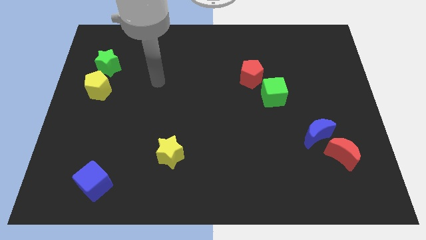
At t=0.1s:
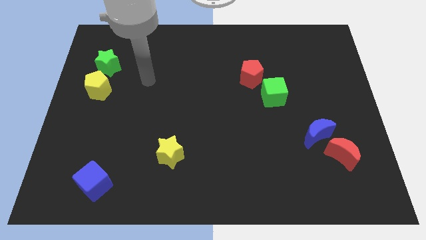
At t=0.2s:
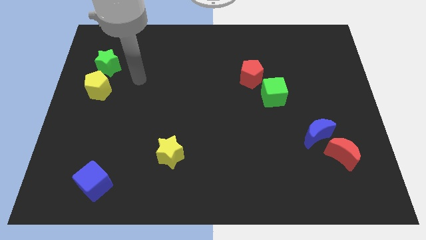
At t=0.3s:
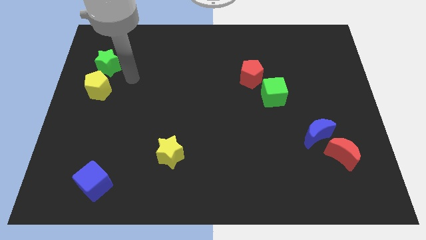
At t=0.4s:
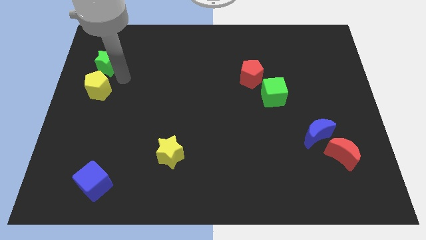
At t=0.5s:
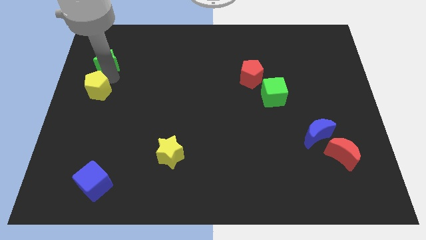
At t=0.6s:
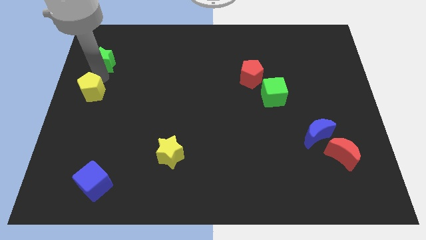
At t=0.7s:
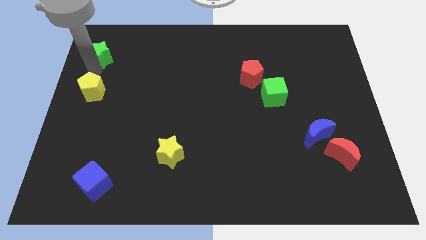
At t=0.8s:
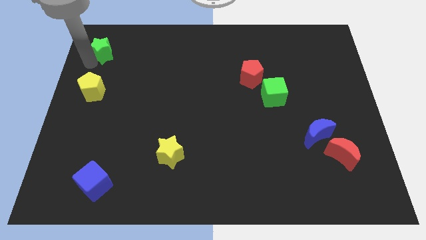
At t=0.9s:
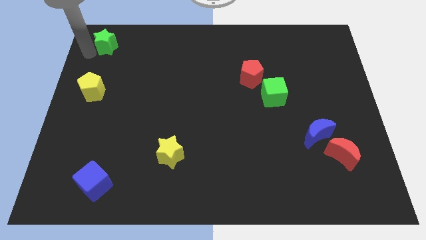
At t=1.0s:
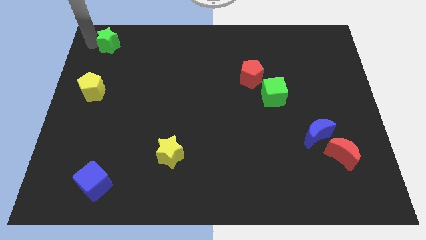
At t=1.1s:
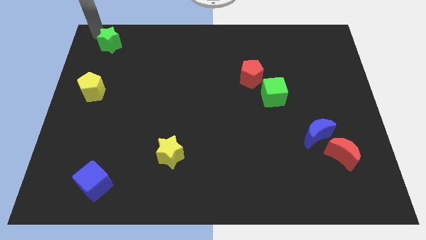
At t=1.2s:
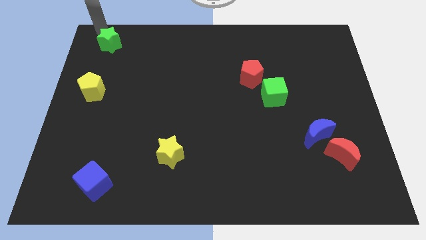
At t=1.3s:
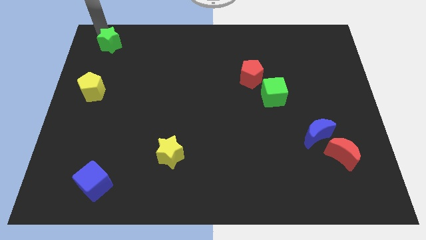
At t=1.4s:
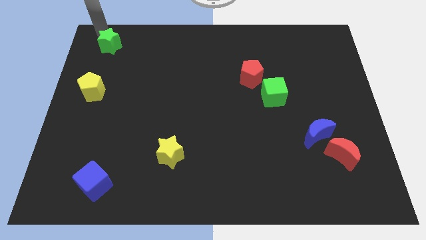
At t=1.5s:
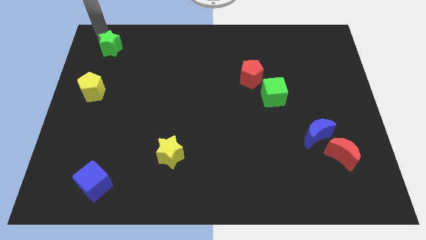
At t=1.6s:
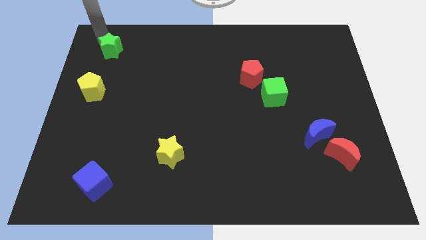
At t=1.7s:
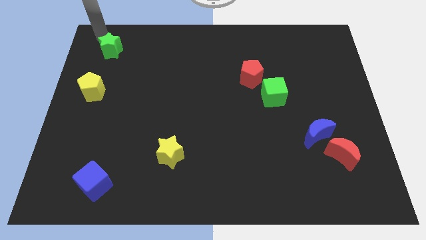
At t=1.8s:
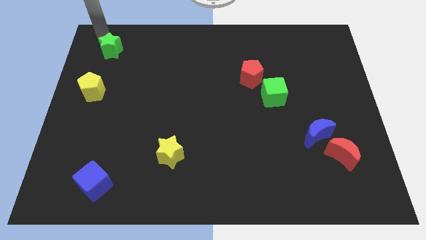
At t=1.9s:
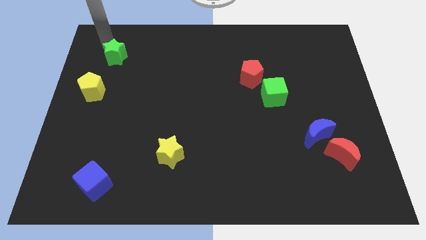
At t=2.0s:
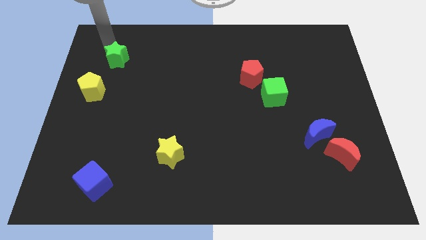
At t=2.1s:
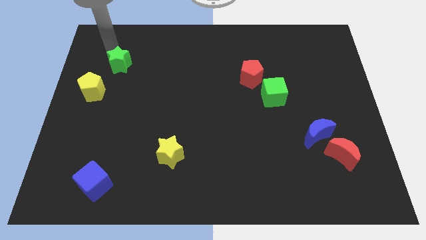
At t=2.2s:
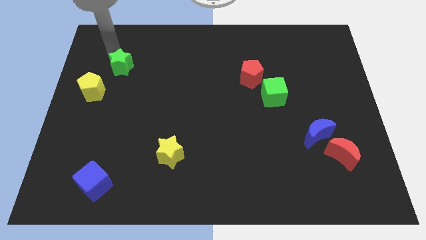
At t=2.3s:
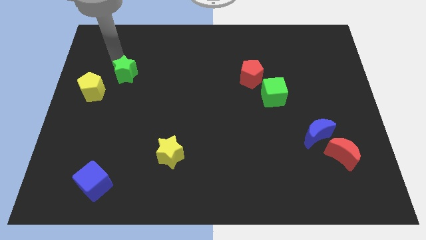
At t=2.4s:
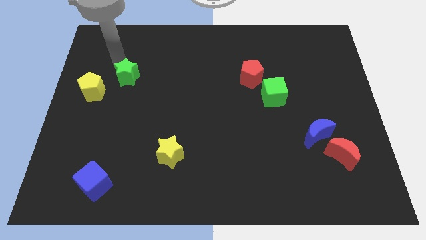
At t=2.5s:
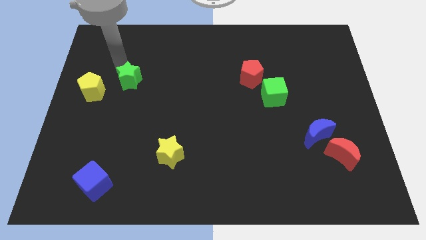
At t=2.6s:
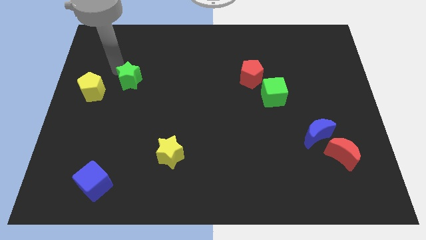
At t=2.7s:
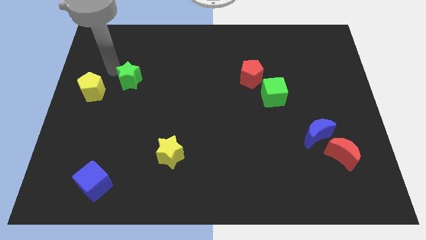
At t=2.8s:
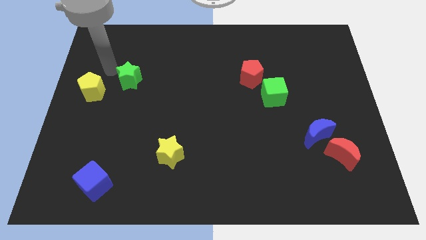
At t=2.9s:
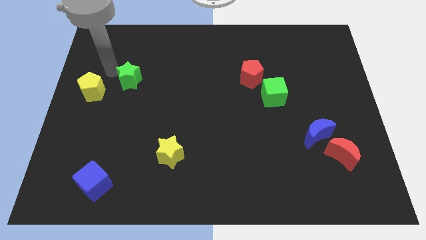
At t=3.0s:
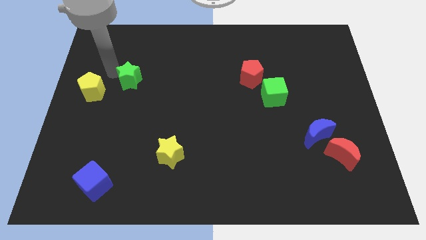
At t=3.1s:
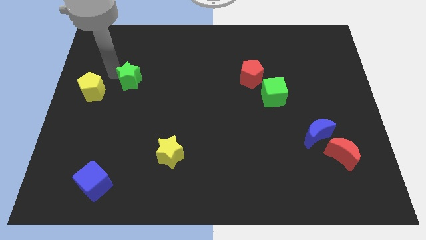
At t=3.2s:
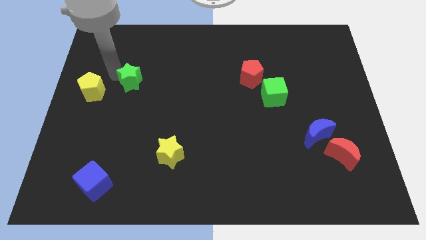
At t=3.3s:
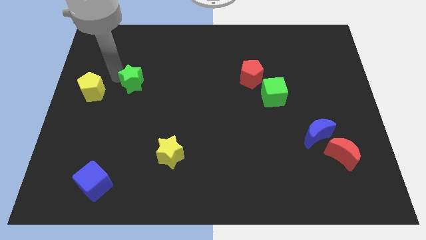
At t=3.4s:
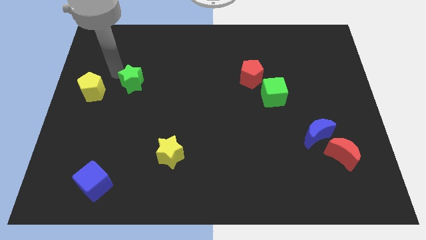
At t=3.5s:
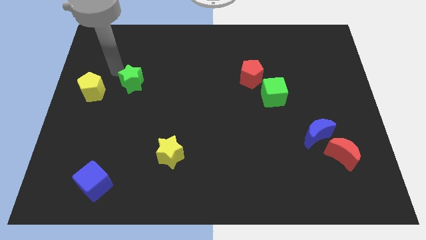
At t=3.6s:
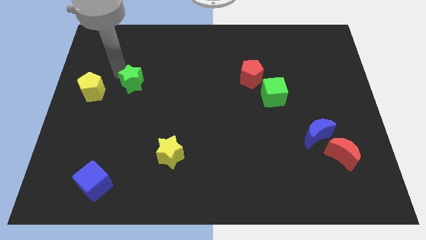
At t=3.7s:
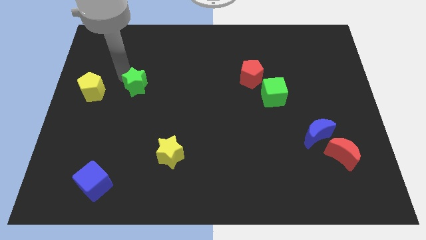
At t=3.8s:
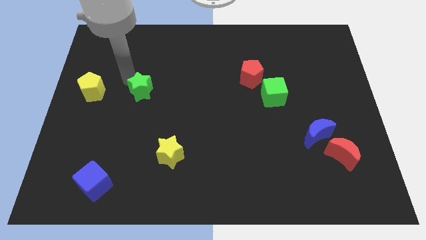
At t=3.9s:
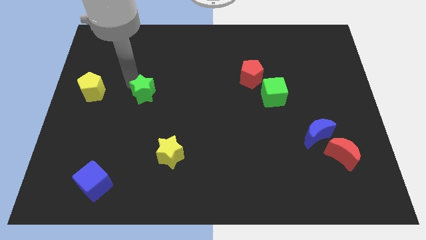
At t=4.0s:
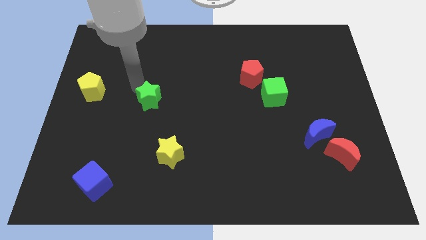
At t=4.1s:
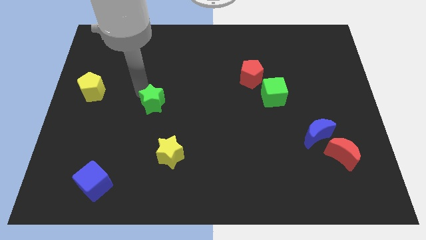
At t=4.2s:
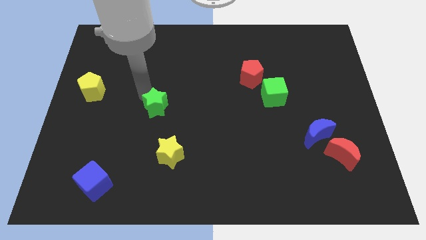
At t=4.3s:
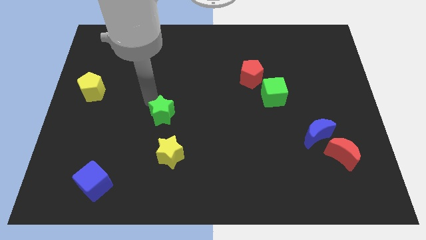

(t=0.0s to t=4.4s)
move the green star diagonally down and right

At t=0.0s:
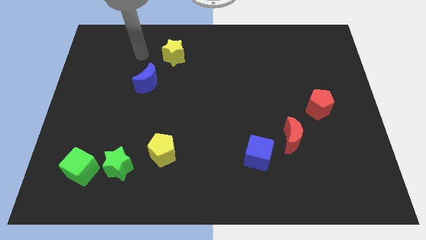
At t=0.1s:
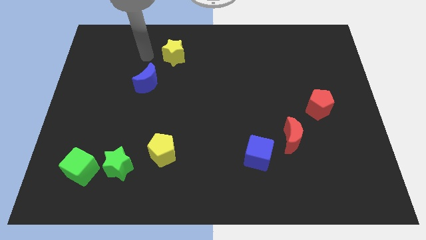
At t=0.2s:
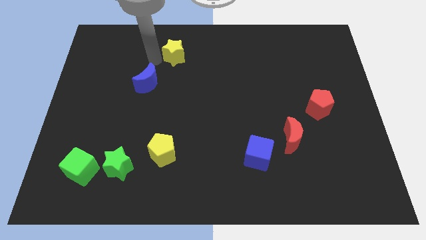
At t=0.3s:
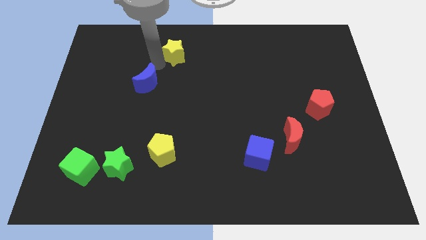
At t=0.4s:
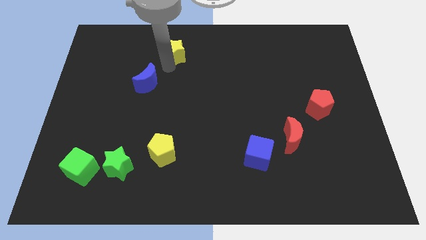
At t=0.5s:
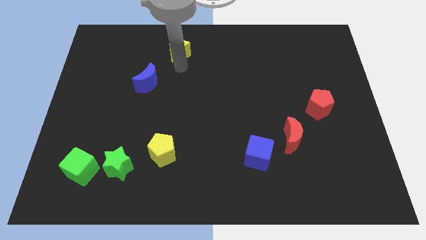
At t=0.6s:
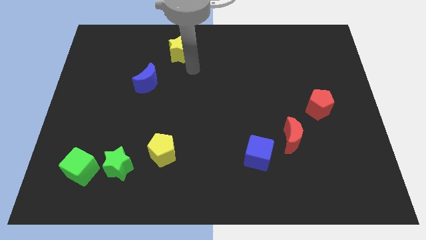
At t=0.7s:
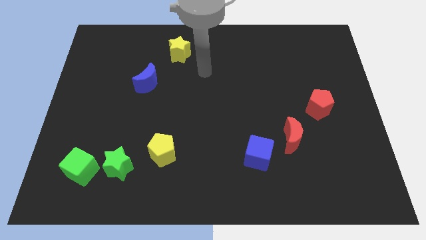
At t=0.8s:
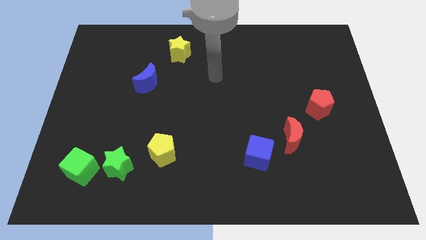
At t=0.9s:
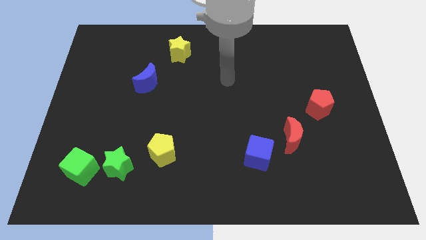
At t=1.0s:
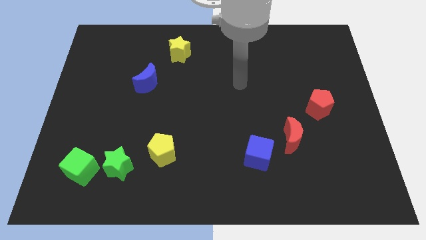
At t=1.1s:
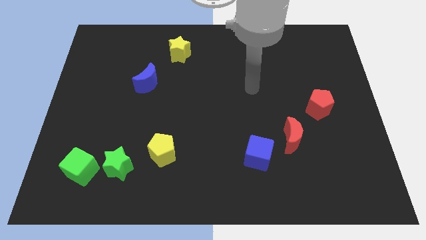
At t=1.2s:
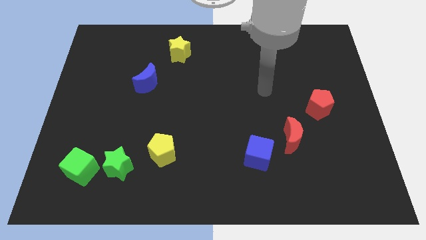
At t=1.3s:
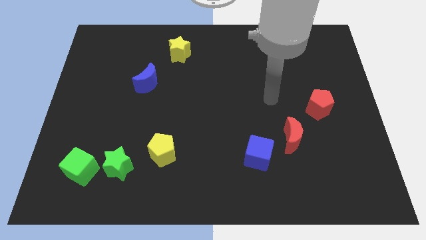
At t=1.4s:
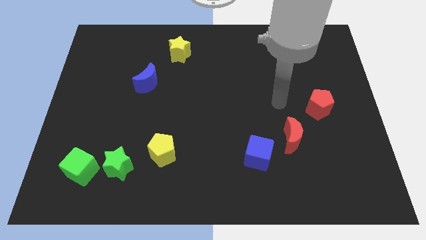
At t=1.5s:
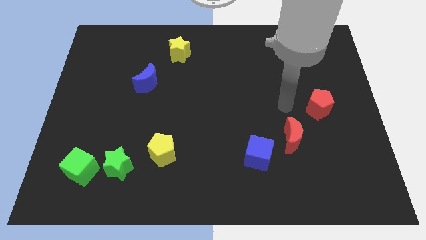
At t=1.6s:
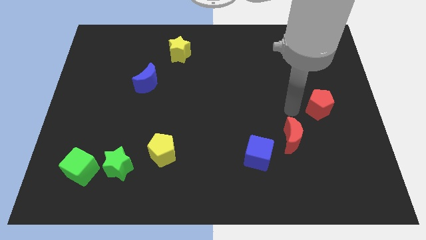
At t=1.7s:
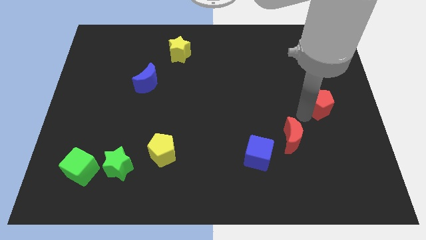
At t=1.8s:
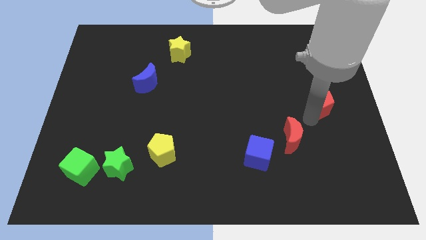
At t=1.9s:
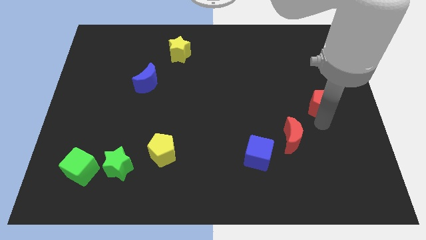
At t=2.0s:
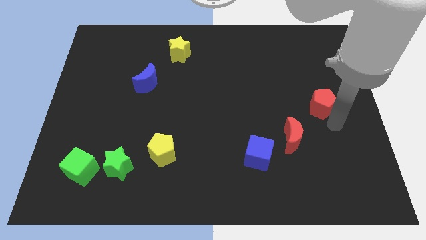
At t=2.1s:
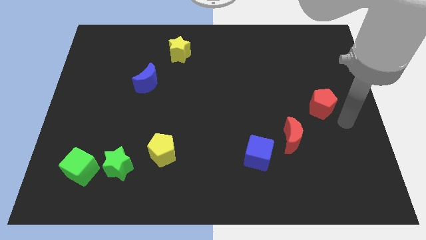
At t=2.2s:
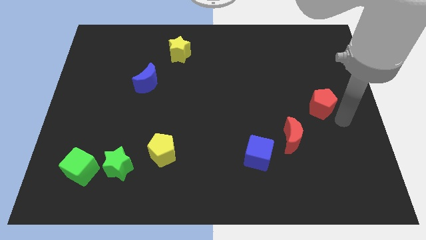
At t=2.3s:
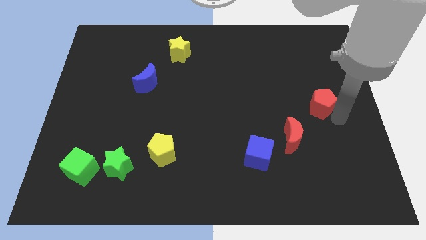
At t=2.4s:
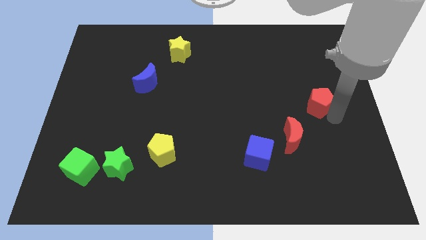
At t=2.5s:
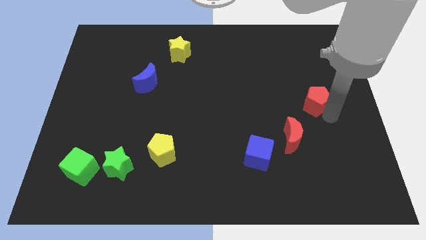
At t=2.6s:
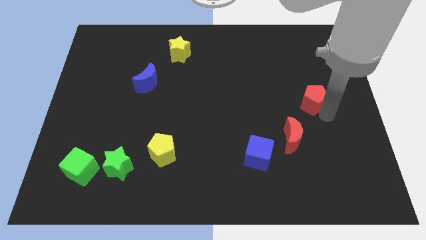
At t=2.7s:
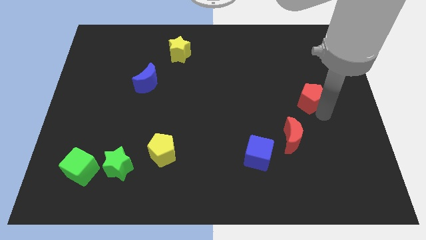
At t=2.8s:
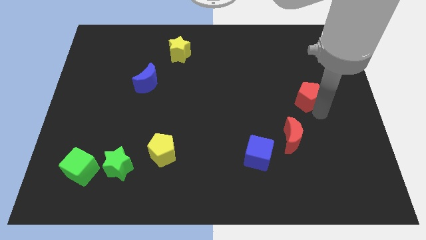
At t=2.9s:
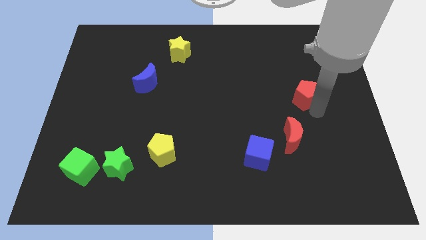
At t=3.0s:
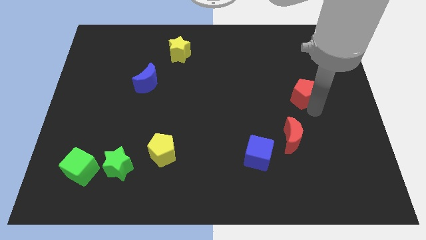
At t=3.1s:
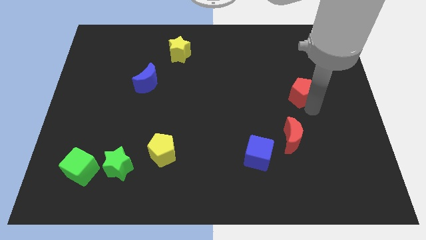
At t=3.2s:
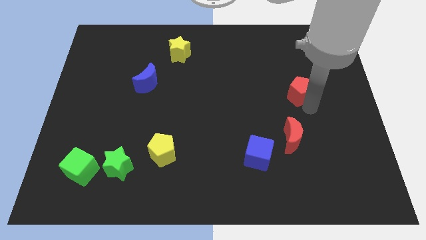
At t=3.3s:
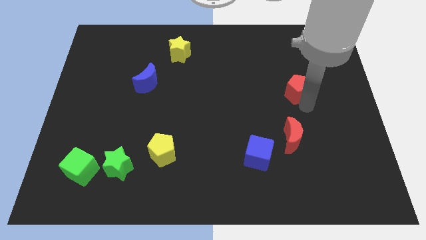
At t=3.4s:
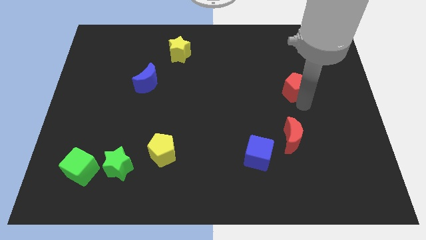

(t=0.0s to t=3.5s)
slightly push the red pentagon upwards and to the left diagonally

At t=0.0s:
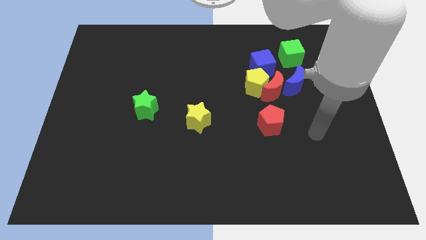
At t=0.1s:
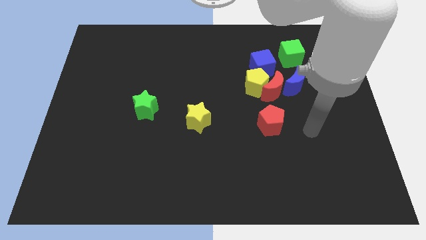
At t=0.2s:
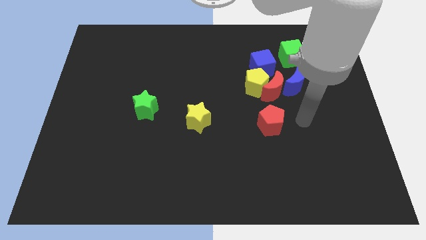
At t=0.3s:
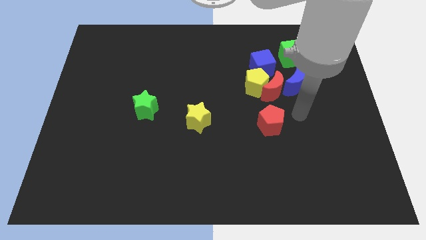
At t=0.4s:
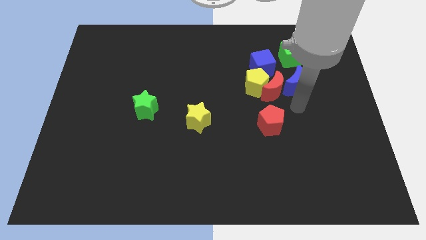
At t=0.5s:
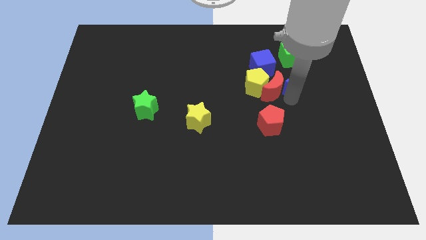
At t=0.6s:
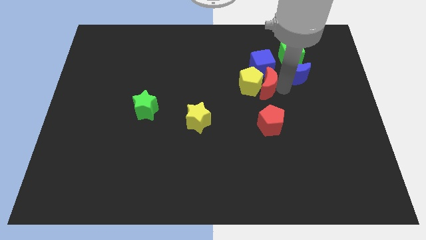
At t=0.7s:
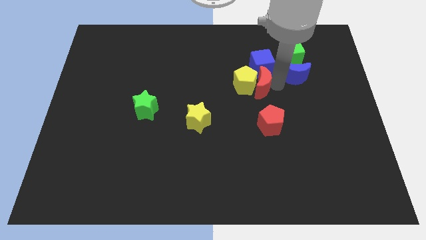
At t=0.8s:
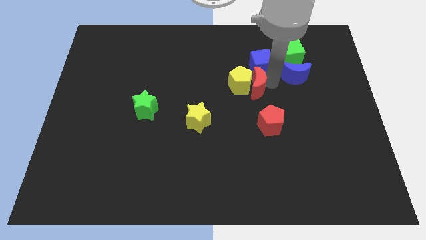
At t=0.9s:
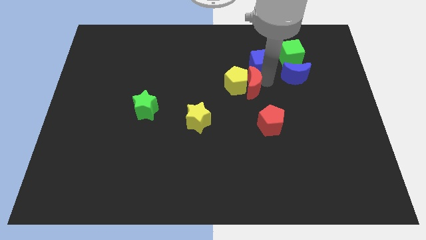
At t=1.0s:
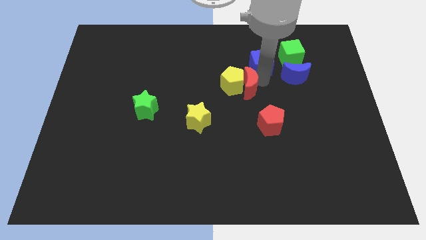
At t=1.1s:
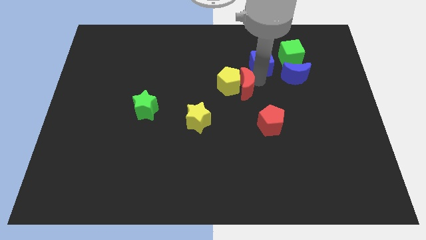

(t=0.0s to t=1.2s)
move the yellow pentagon left a bit
